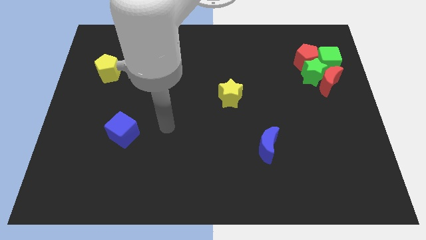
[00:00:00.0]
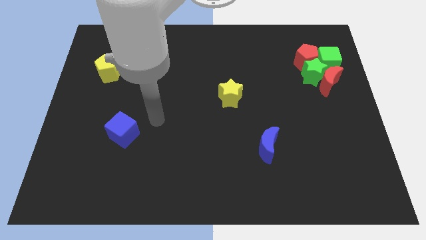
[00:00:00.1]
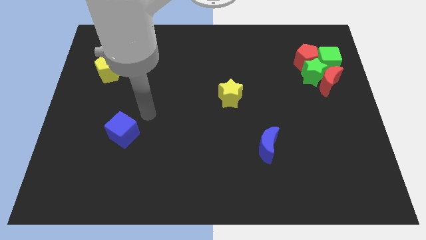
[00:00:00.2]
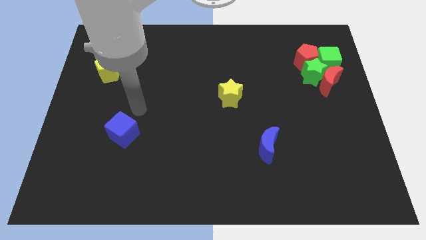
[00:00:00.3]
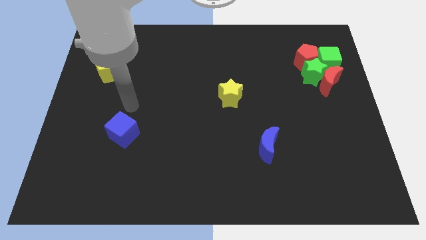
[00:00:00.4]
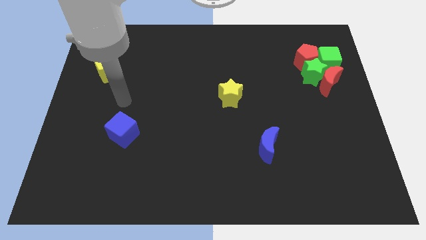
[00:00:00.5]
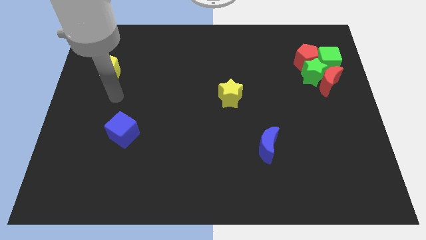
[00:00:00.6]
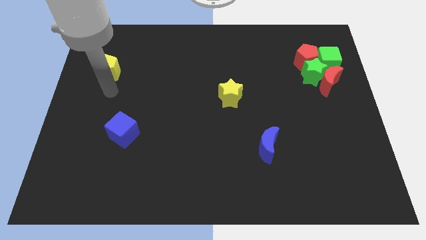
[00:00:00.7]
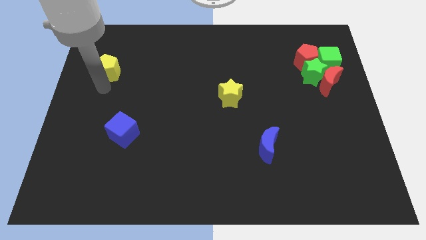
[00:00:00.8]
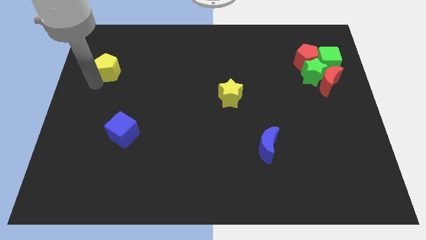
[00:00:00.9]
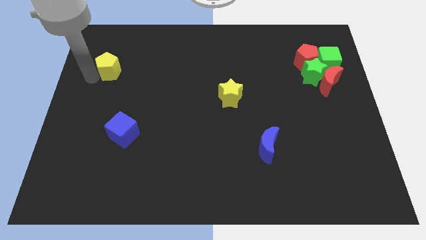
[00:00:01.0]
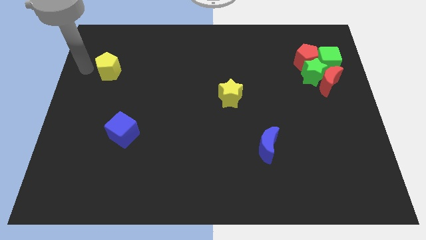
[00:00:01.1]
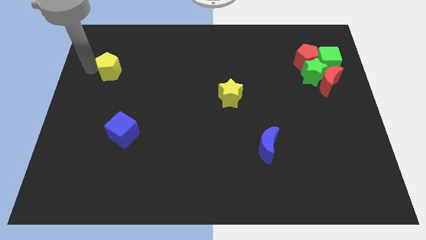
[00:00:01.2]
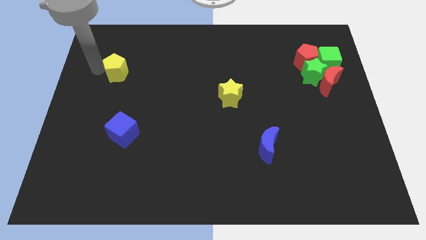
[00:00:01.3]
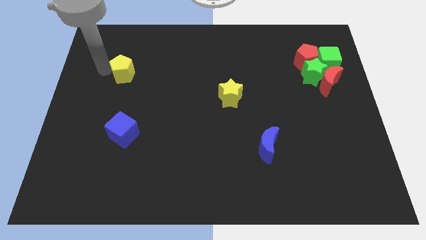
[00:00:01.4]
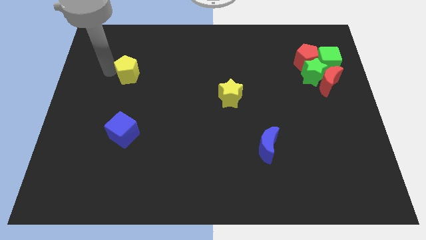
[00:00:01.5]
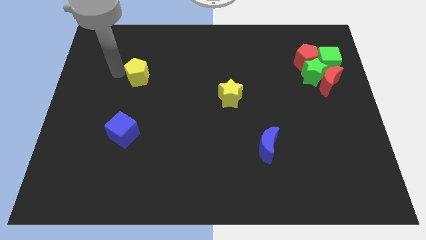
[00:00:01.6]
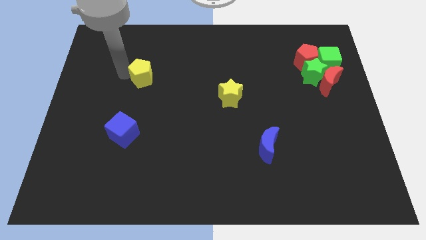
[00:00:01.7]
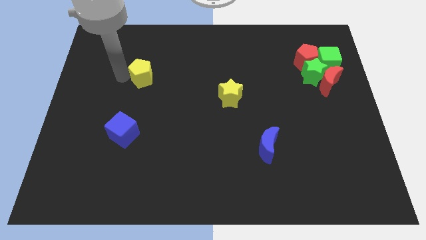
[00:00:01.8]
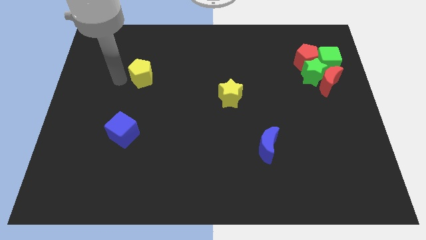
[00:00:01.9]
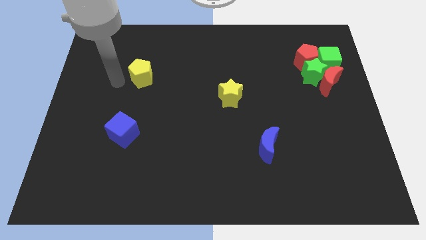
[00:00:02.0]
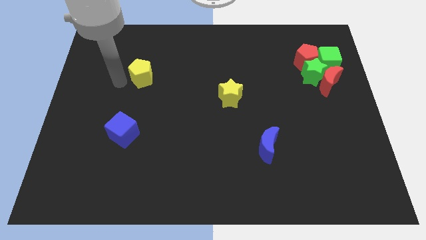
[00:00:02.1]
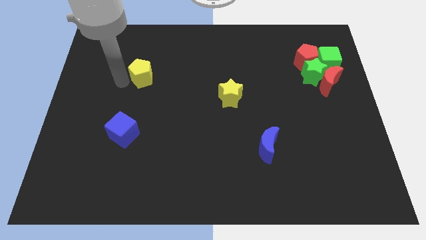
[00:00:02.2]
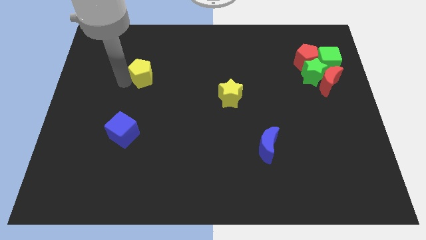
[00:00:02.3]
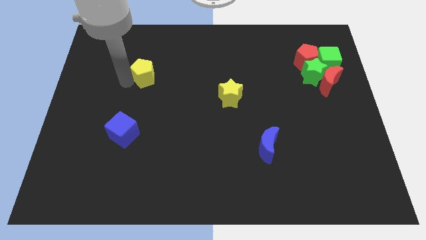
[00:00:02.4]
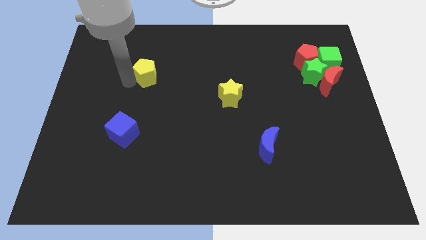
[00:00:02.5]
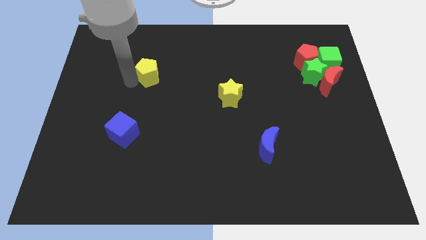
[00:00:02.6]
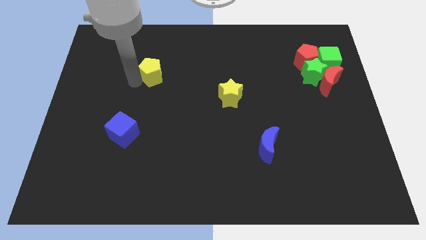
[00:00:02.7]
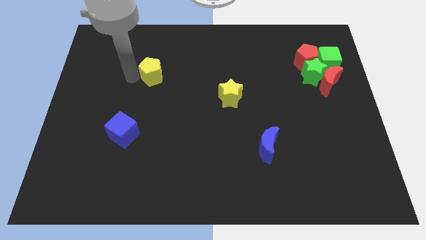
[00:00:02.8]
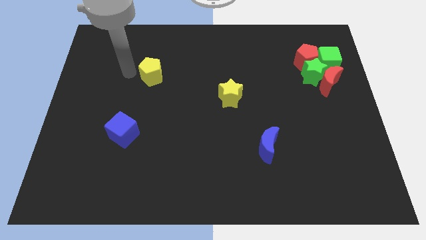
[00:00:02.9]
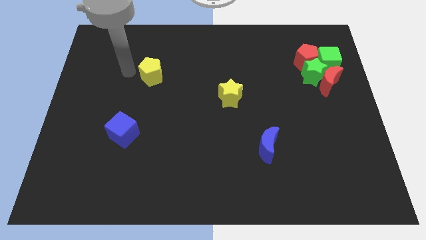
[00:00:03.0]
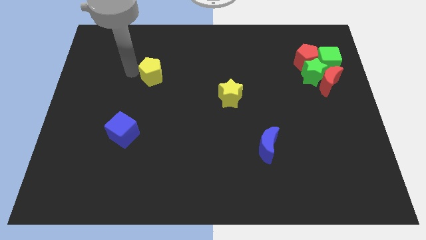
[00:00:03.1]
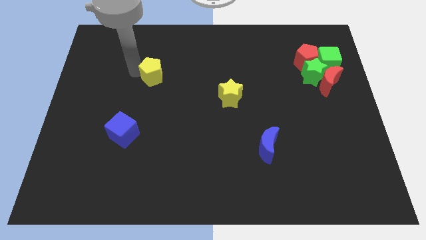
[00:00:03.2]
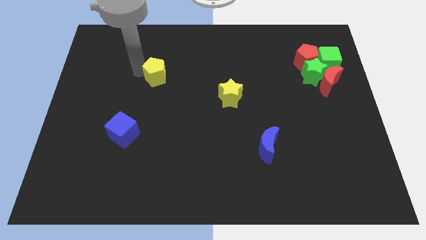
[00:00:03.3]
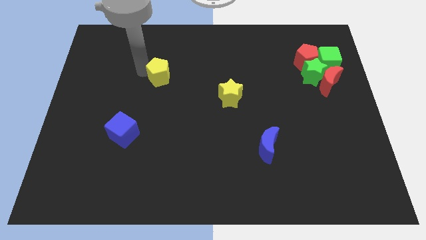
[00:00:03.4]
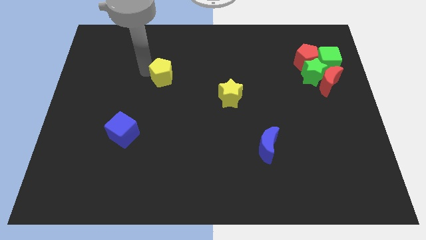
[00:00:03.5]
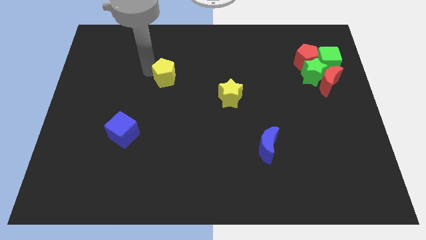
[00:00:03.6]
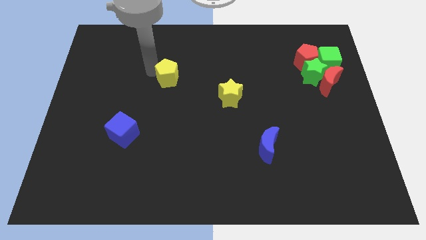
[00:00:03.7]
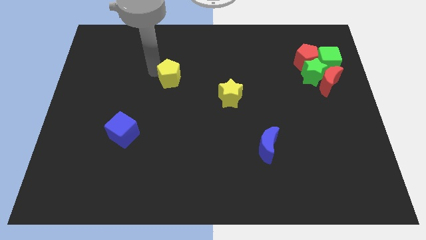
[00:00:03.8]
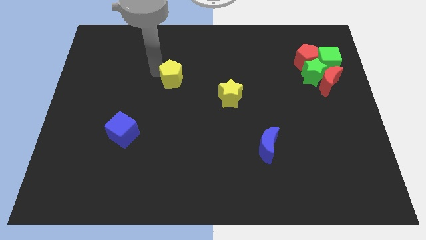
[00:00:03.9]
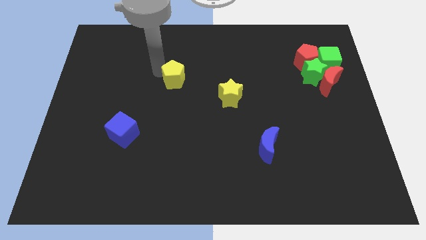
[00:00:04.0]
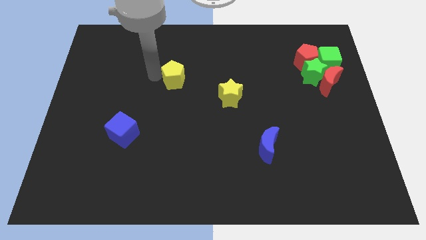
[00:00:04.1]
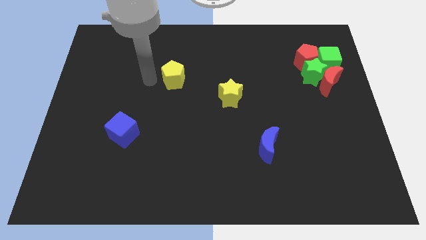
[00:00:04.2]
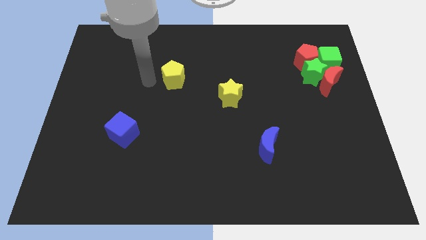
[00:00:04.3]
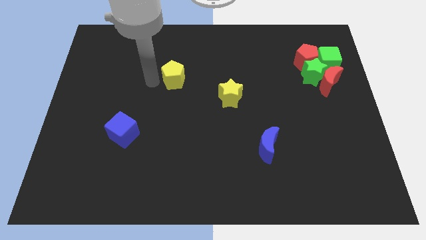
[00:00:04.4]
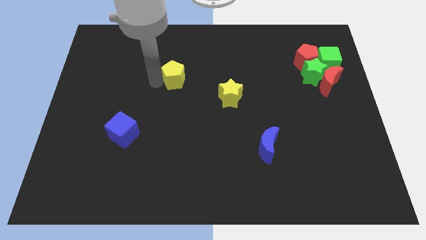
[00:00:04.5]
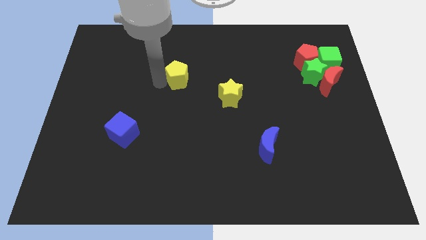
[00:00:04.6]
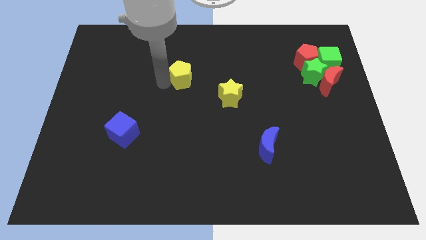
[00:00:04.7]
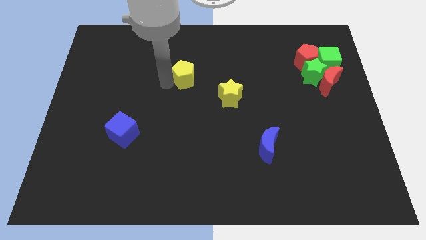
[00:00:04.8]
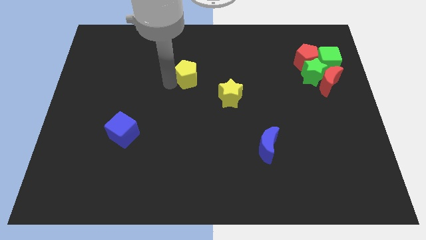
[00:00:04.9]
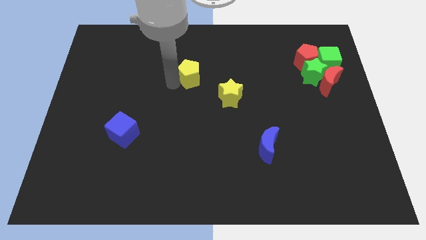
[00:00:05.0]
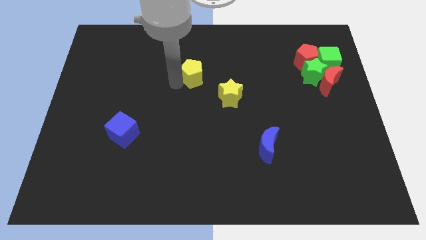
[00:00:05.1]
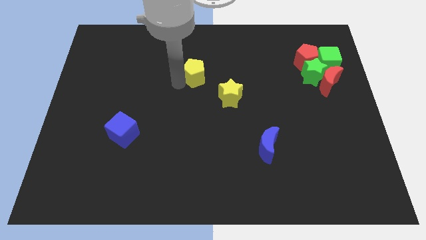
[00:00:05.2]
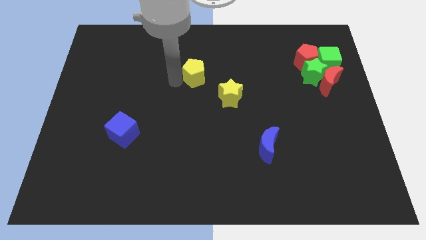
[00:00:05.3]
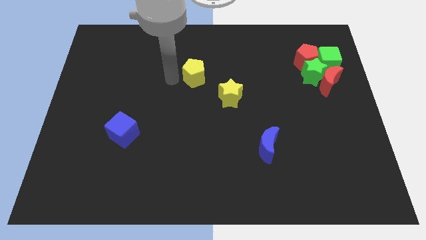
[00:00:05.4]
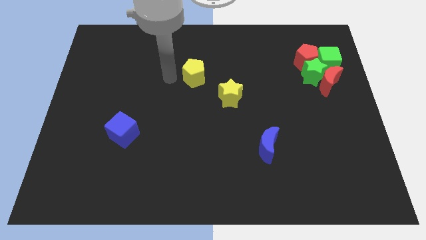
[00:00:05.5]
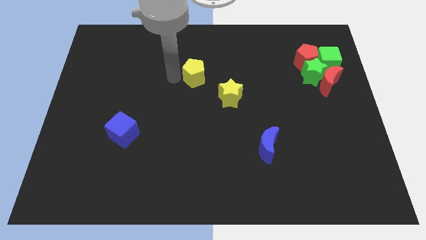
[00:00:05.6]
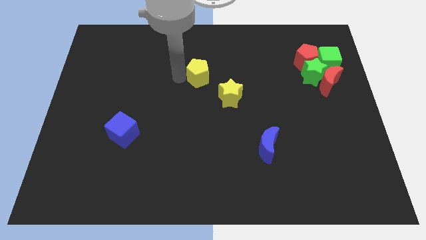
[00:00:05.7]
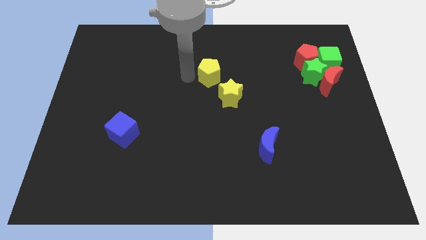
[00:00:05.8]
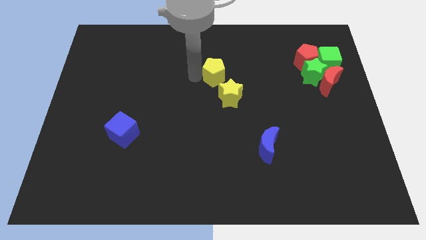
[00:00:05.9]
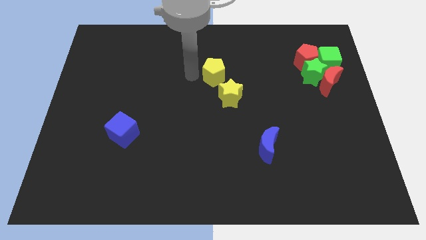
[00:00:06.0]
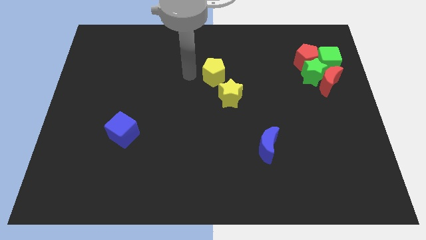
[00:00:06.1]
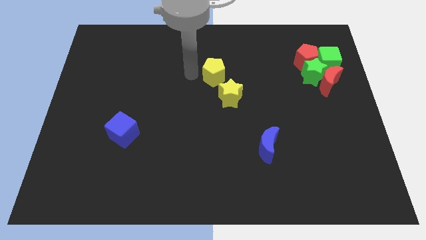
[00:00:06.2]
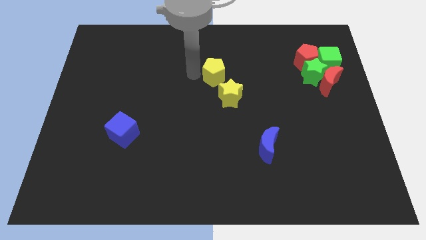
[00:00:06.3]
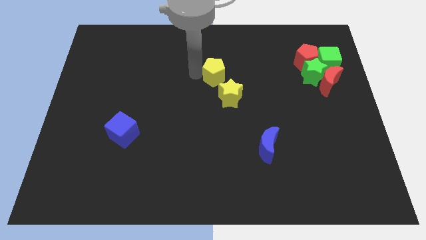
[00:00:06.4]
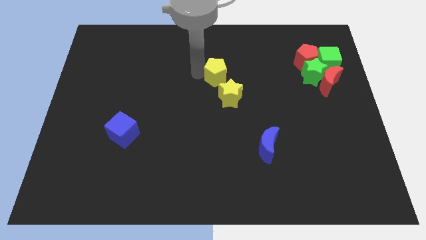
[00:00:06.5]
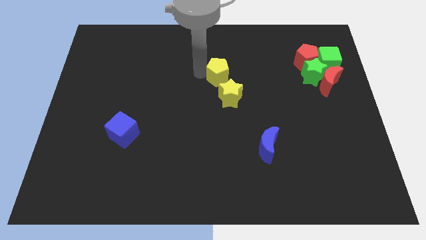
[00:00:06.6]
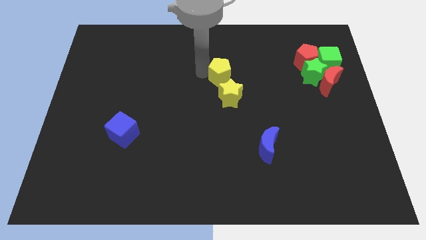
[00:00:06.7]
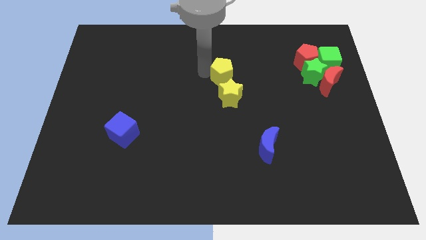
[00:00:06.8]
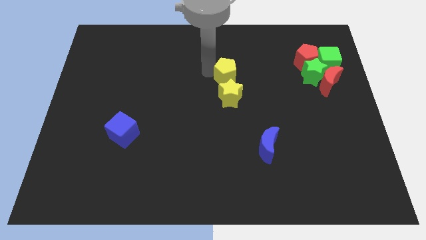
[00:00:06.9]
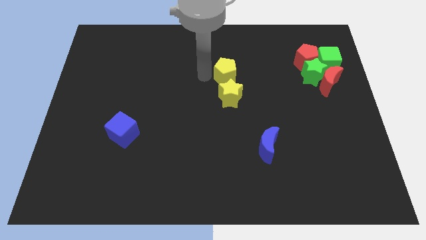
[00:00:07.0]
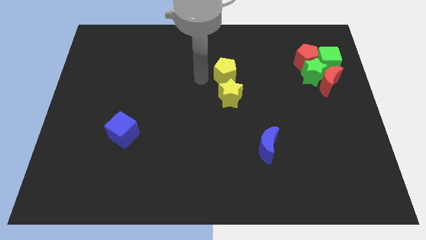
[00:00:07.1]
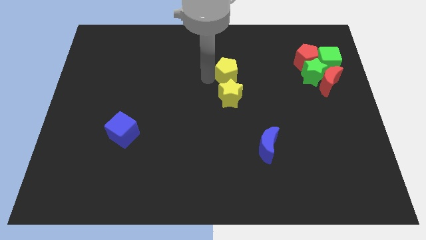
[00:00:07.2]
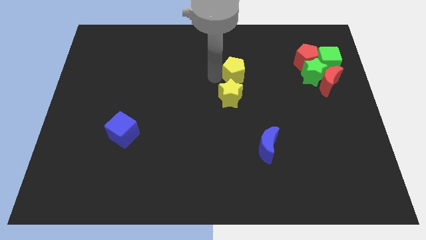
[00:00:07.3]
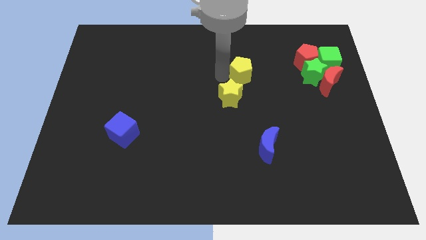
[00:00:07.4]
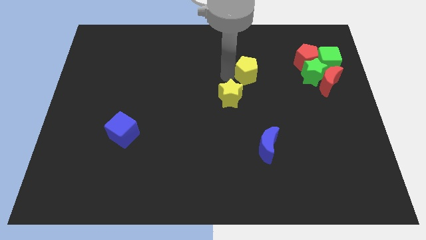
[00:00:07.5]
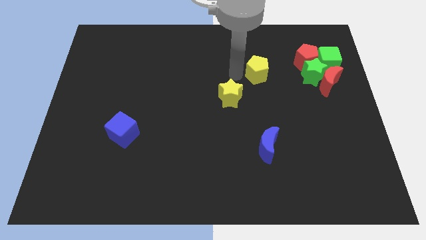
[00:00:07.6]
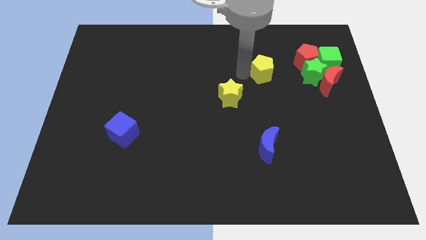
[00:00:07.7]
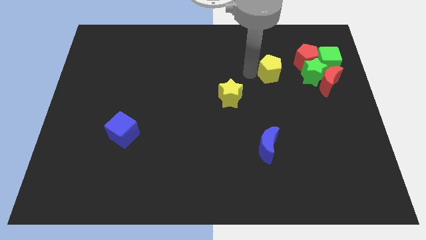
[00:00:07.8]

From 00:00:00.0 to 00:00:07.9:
put the yellow pentagon to the bottom left of the red pentagon
